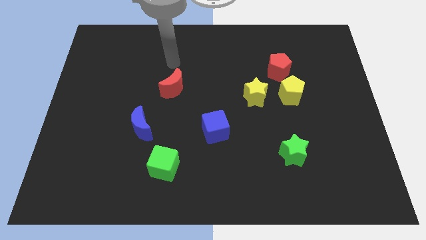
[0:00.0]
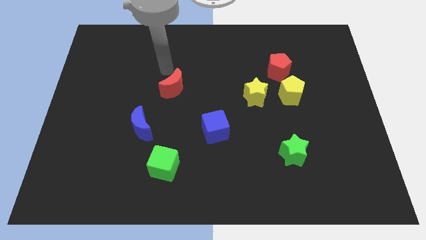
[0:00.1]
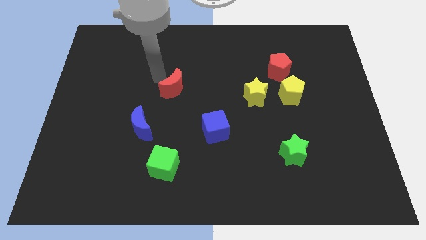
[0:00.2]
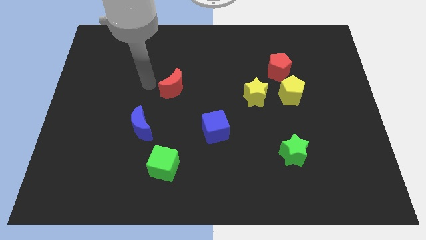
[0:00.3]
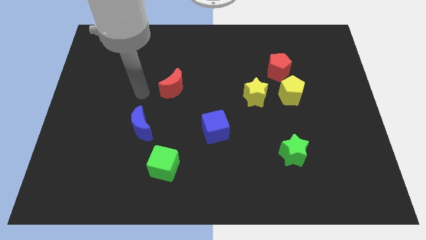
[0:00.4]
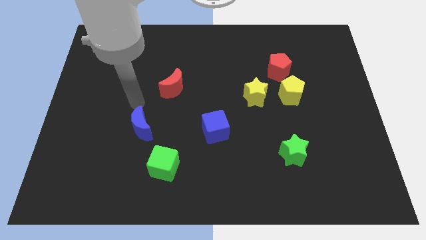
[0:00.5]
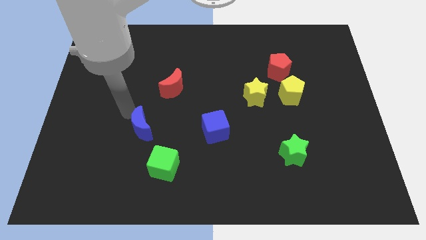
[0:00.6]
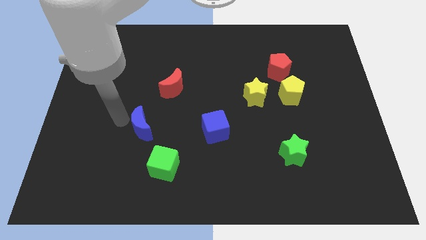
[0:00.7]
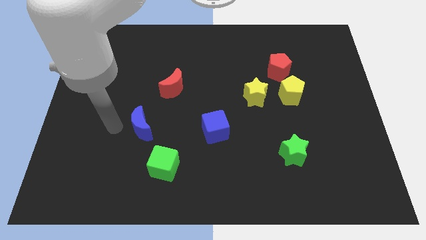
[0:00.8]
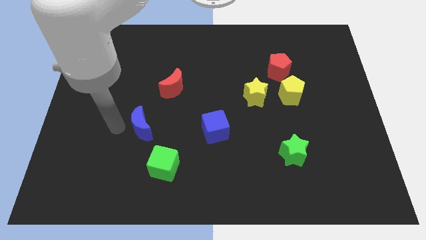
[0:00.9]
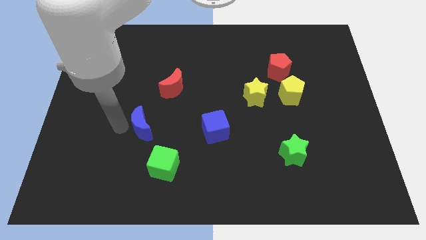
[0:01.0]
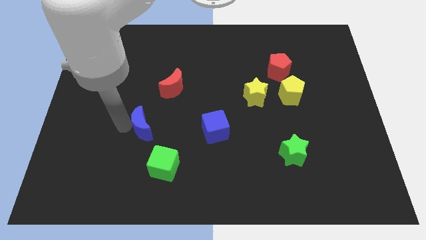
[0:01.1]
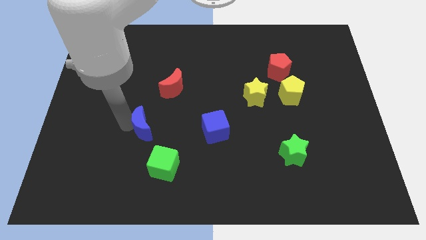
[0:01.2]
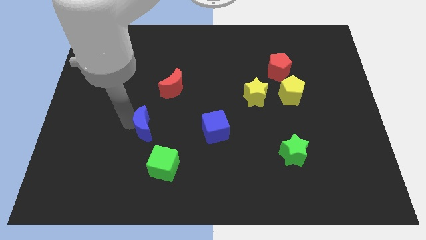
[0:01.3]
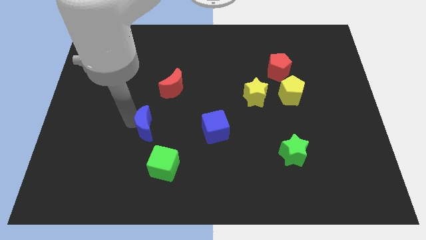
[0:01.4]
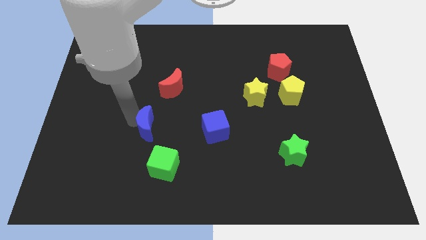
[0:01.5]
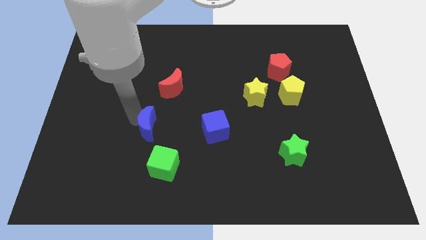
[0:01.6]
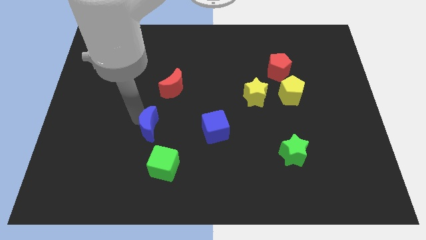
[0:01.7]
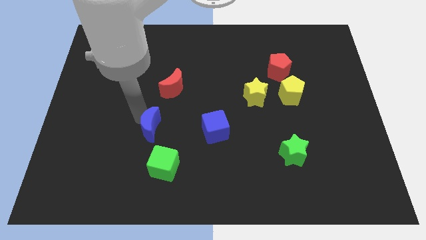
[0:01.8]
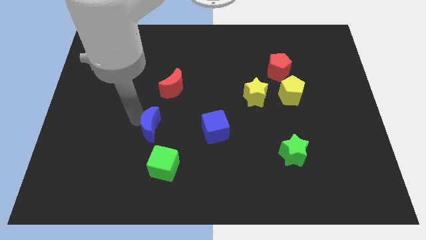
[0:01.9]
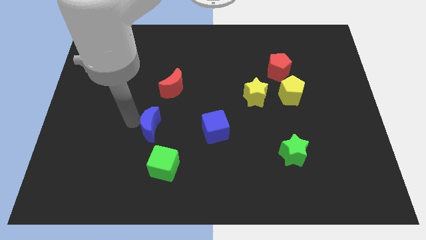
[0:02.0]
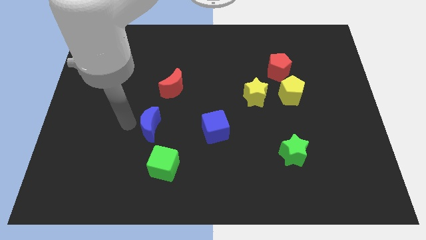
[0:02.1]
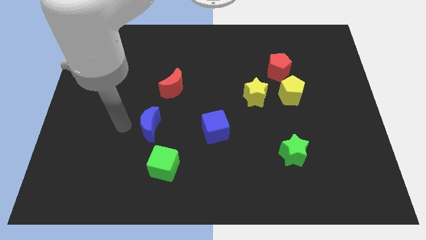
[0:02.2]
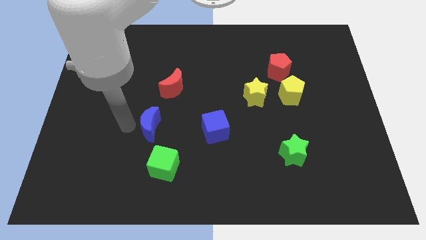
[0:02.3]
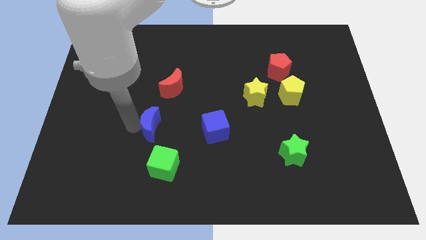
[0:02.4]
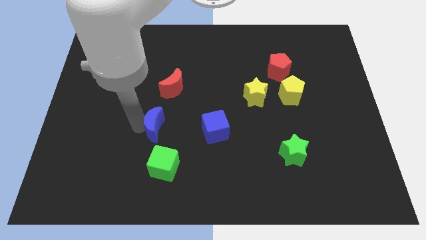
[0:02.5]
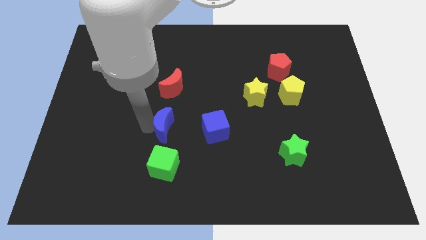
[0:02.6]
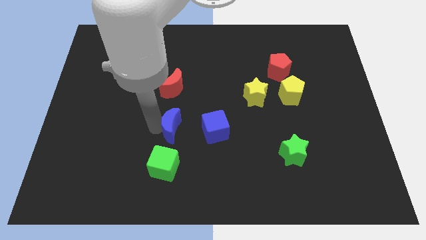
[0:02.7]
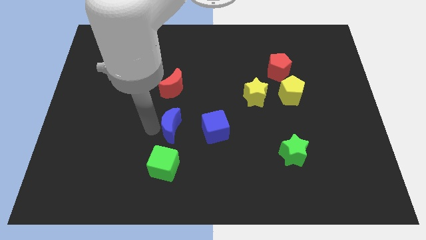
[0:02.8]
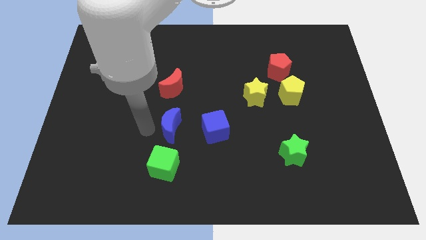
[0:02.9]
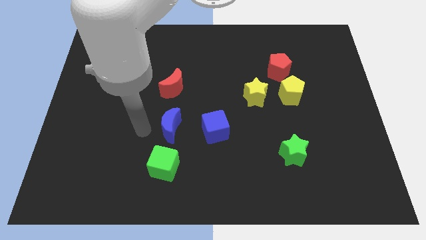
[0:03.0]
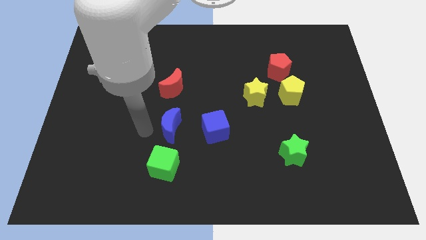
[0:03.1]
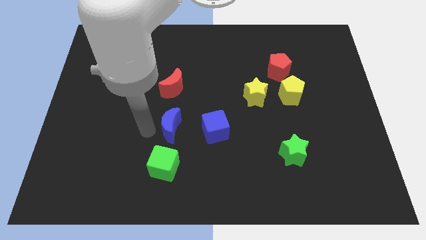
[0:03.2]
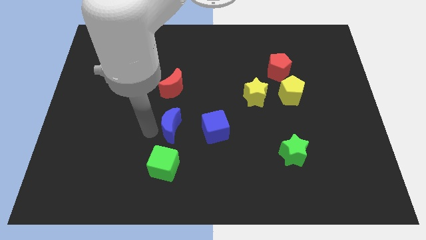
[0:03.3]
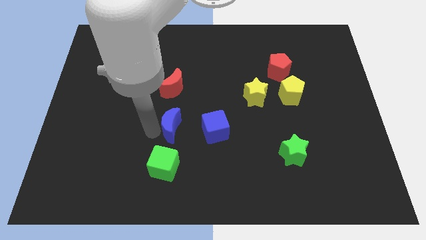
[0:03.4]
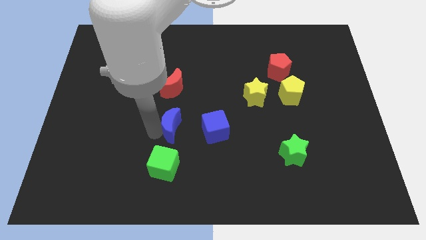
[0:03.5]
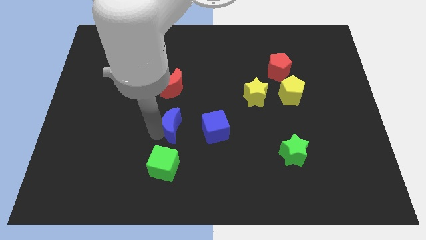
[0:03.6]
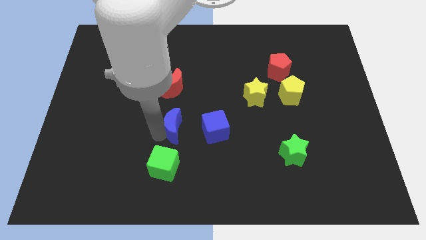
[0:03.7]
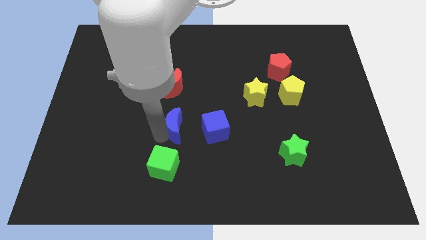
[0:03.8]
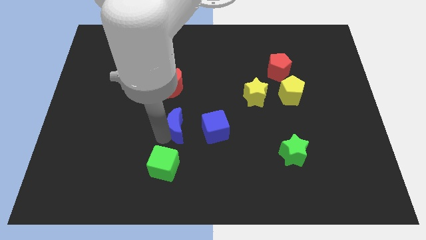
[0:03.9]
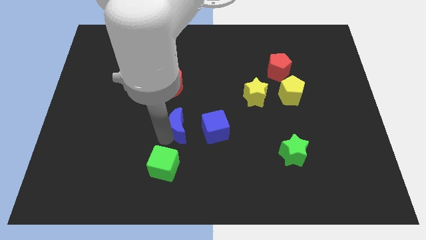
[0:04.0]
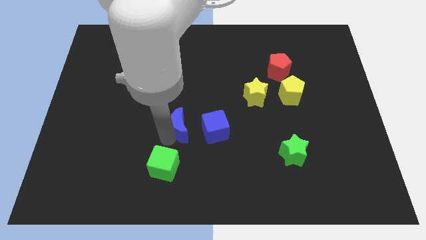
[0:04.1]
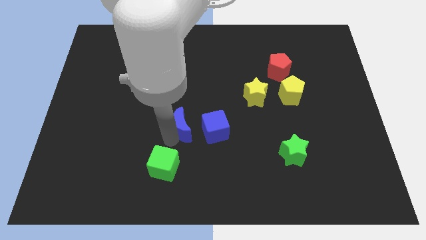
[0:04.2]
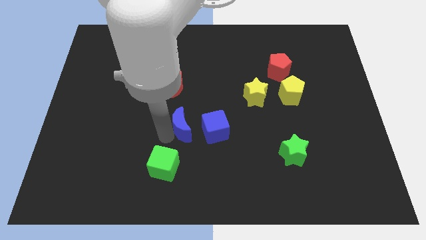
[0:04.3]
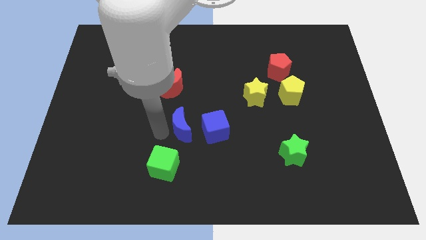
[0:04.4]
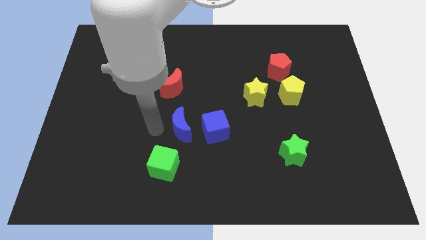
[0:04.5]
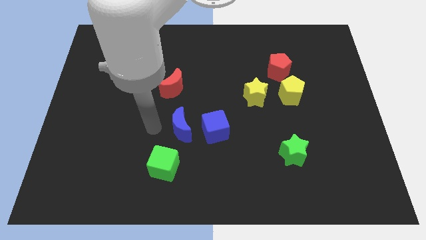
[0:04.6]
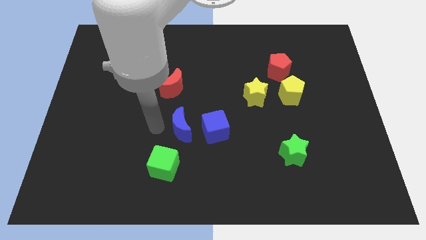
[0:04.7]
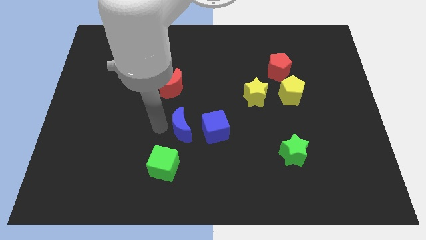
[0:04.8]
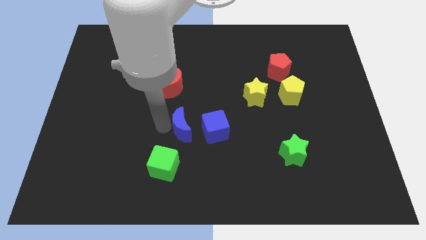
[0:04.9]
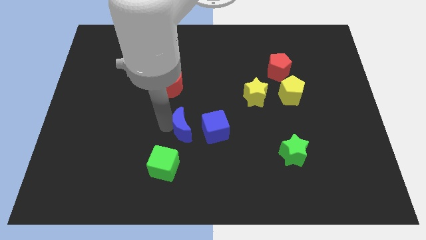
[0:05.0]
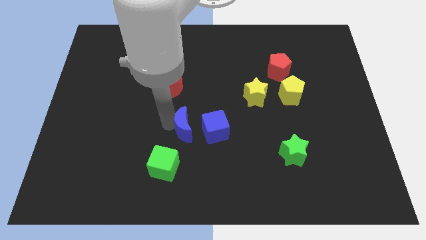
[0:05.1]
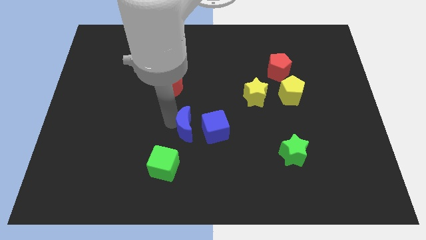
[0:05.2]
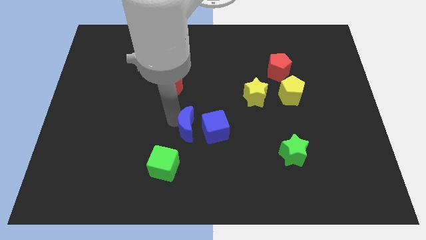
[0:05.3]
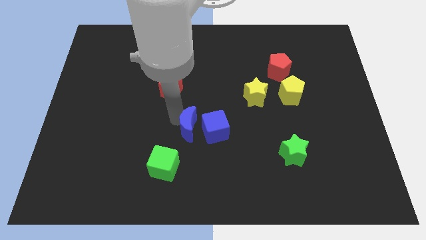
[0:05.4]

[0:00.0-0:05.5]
move the blue moon next to the blue cube

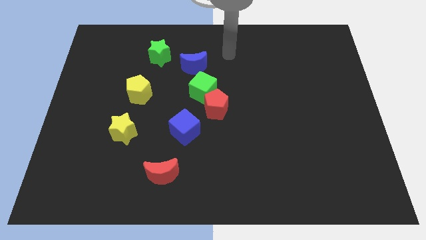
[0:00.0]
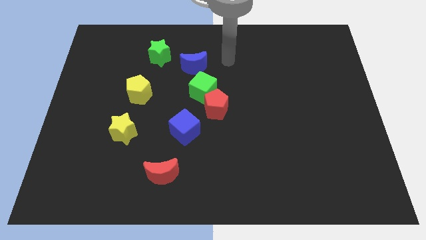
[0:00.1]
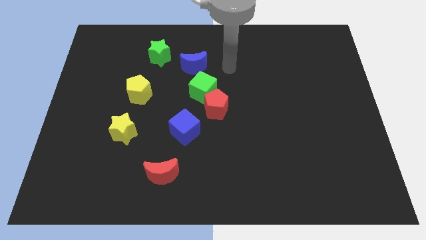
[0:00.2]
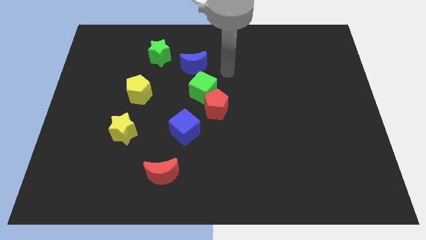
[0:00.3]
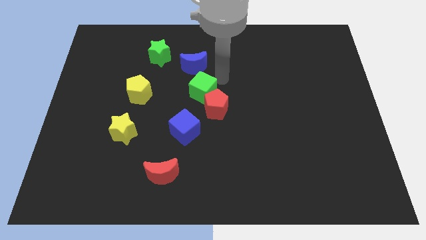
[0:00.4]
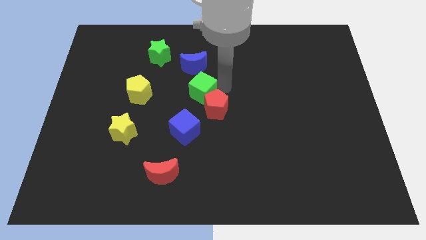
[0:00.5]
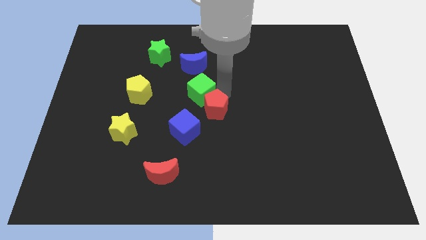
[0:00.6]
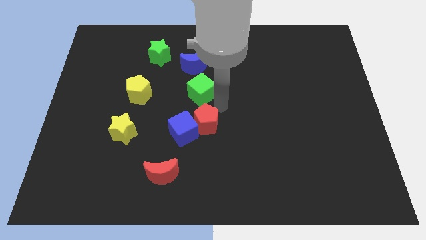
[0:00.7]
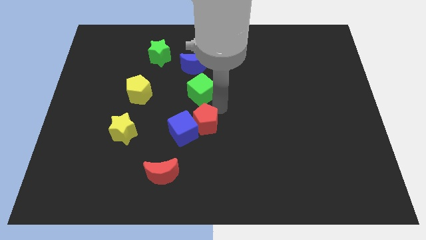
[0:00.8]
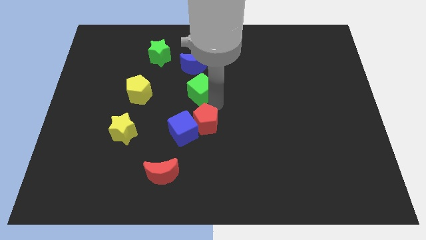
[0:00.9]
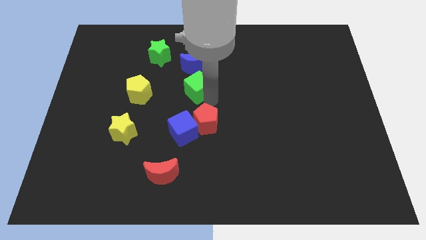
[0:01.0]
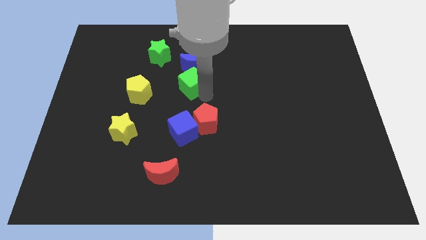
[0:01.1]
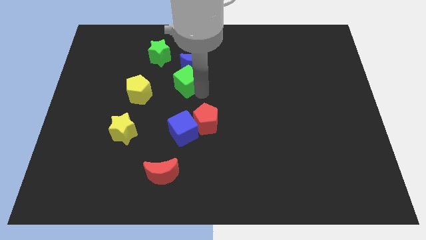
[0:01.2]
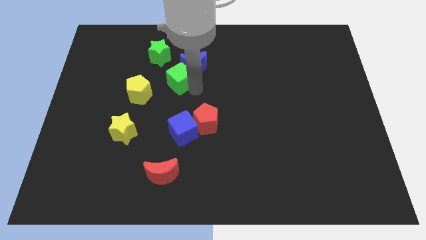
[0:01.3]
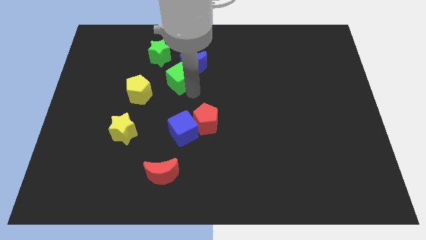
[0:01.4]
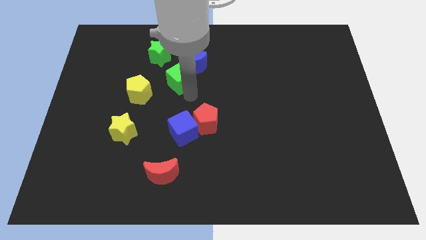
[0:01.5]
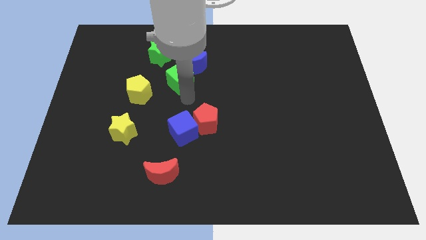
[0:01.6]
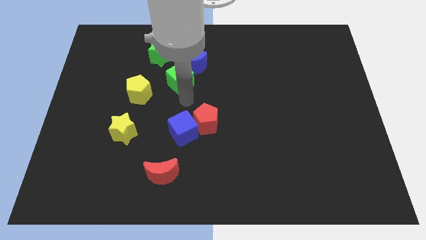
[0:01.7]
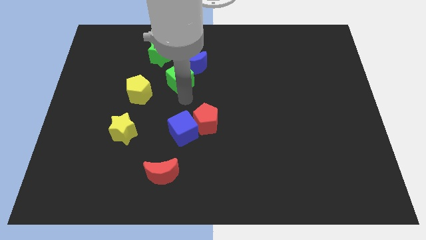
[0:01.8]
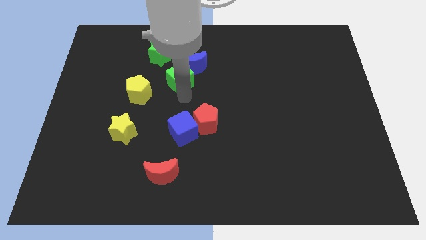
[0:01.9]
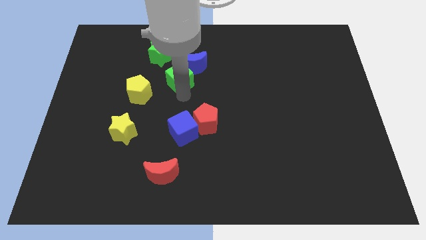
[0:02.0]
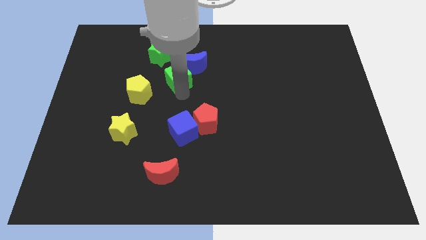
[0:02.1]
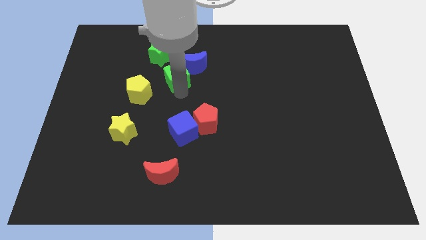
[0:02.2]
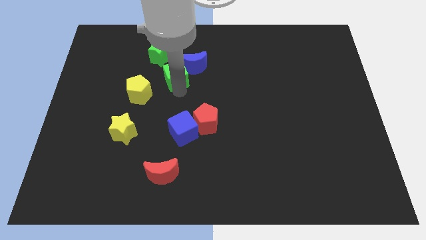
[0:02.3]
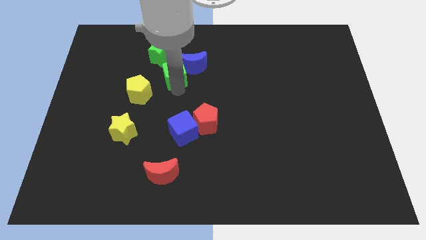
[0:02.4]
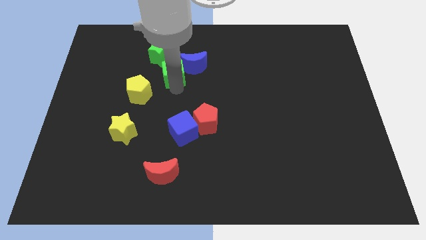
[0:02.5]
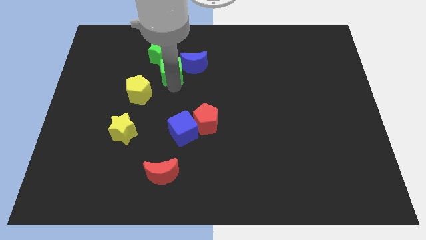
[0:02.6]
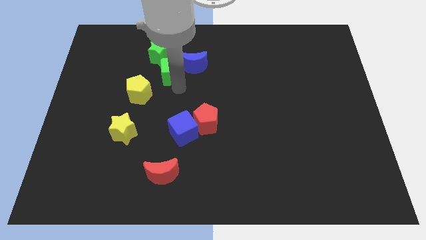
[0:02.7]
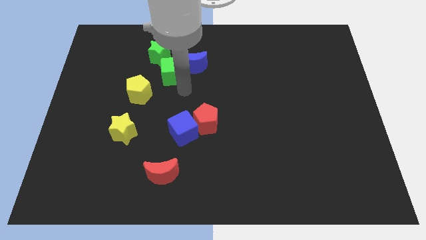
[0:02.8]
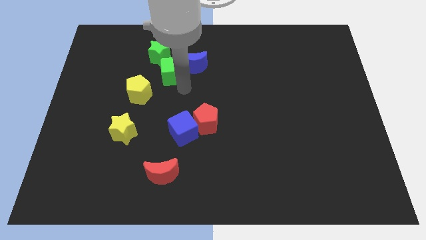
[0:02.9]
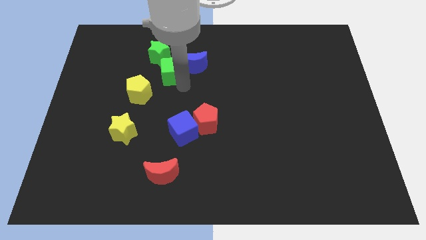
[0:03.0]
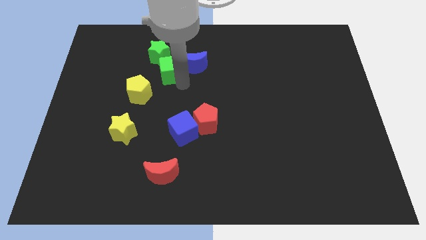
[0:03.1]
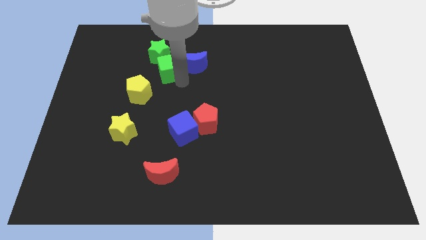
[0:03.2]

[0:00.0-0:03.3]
move the green cube close to the green star
